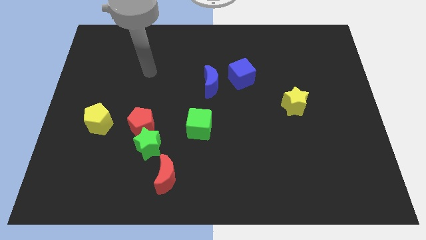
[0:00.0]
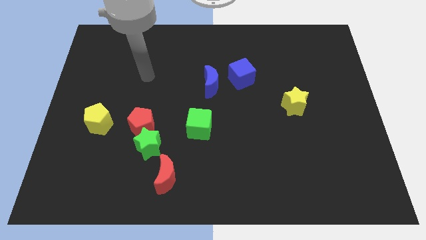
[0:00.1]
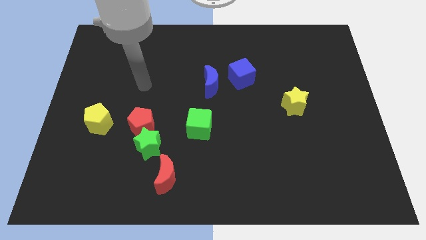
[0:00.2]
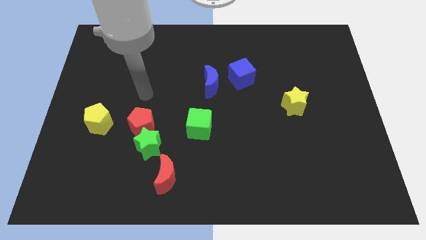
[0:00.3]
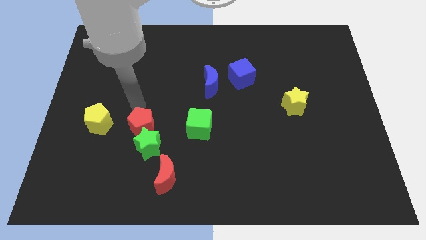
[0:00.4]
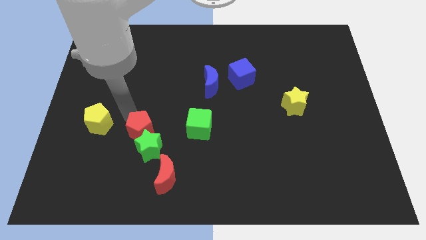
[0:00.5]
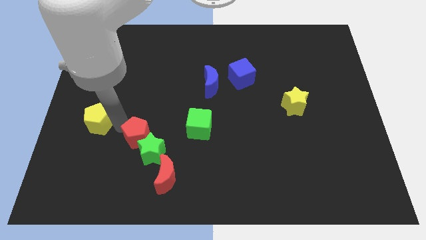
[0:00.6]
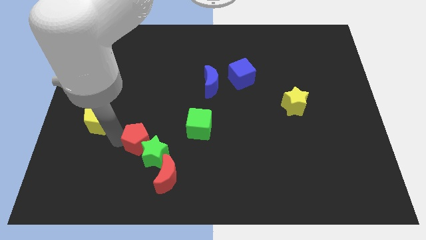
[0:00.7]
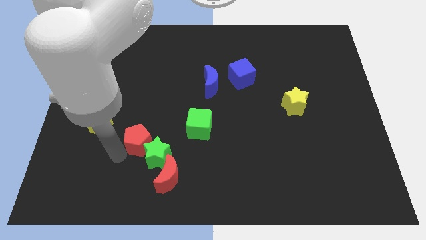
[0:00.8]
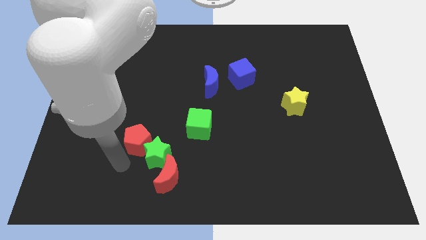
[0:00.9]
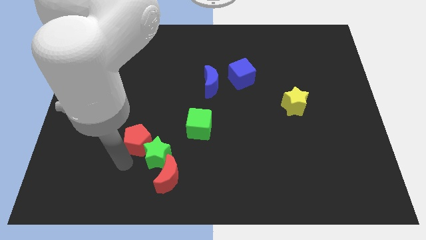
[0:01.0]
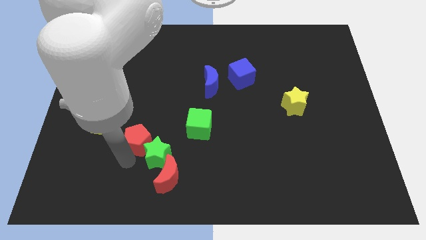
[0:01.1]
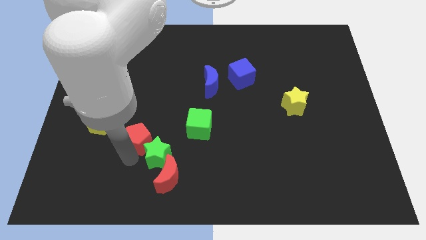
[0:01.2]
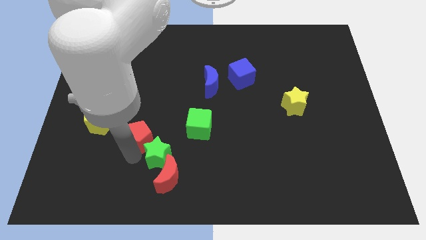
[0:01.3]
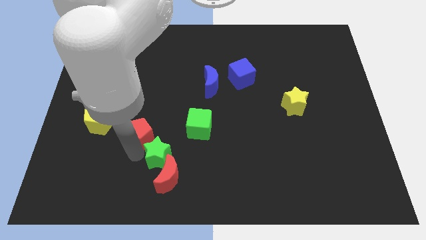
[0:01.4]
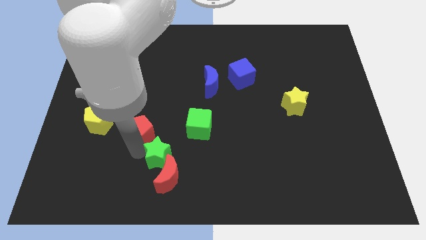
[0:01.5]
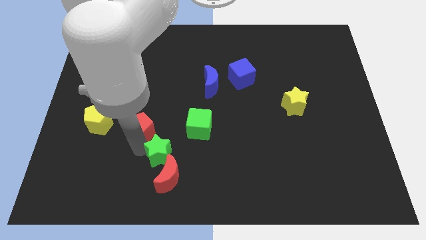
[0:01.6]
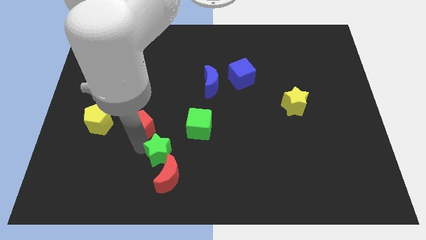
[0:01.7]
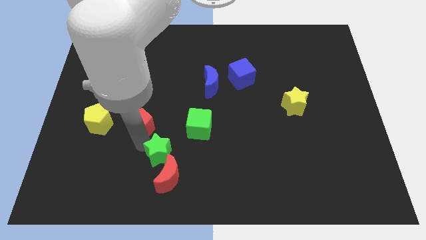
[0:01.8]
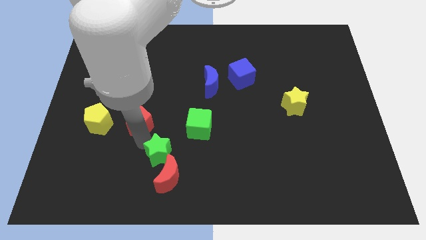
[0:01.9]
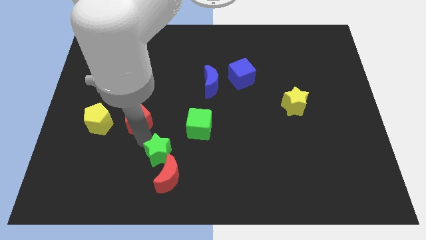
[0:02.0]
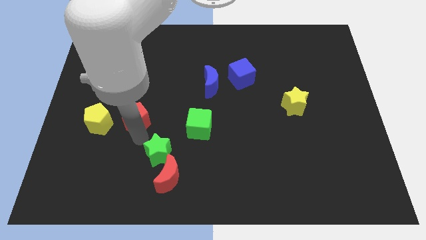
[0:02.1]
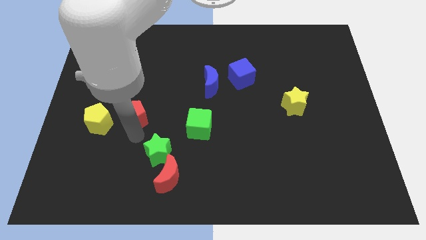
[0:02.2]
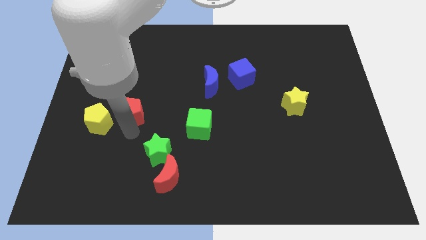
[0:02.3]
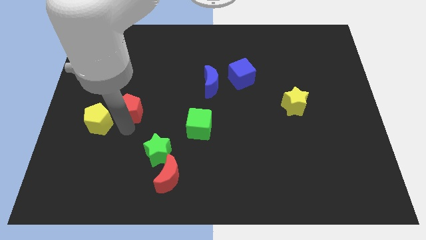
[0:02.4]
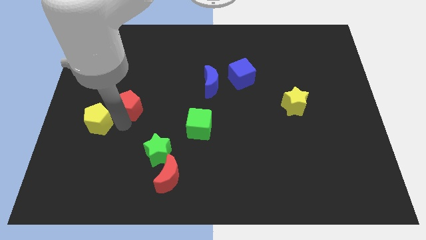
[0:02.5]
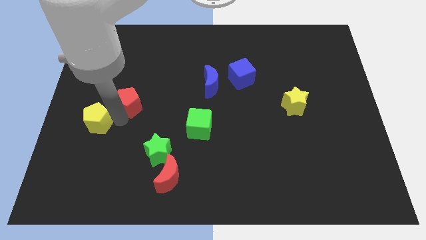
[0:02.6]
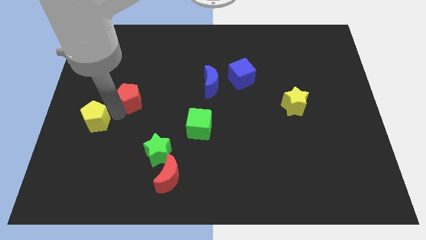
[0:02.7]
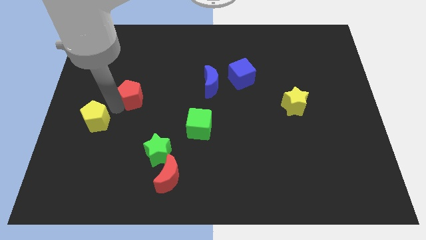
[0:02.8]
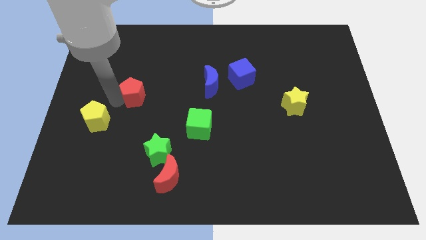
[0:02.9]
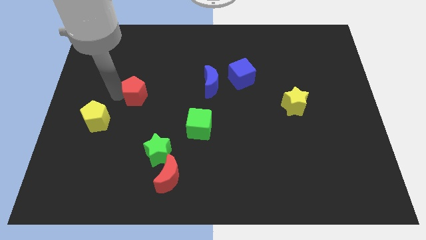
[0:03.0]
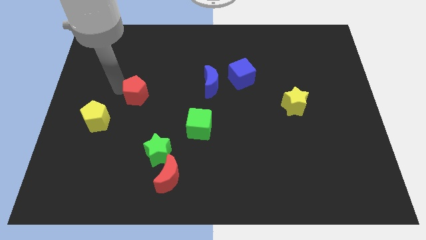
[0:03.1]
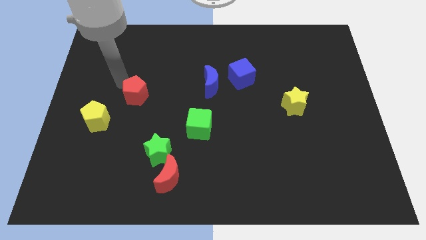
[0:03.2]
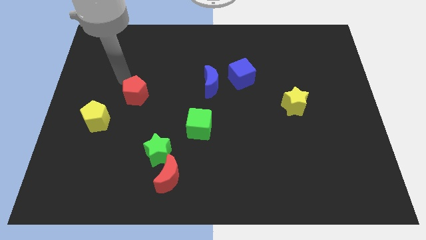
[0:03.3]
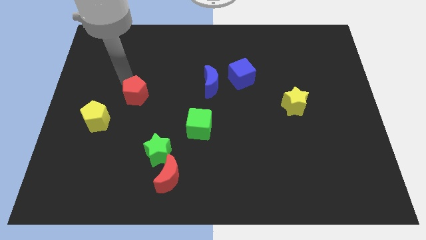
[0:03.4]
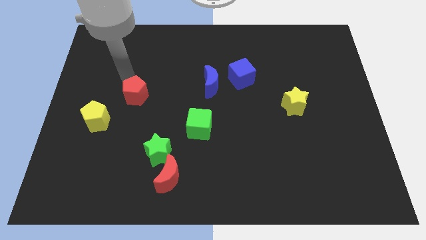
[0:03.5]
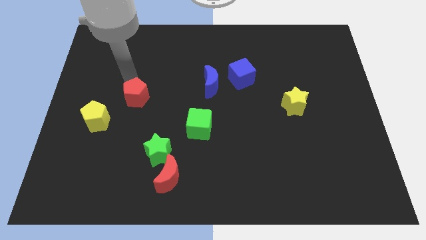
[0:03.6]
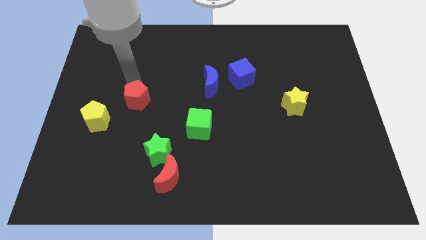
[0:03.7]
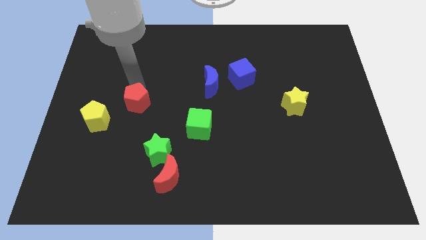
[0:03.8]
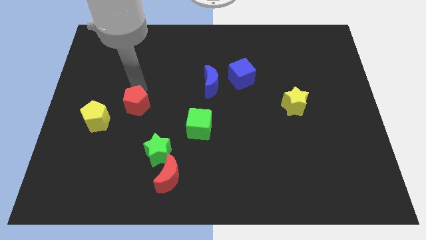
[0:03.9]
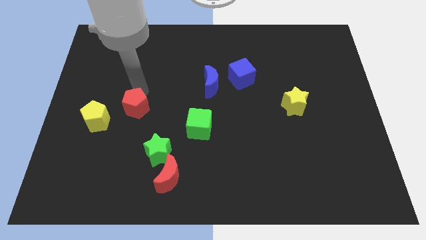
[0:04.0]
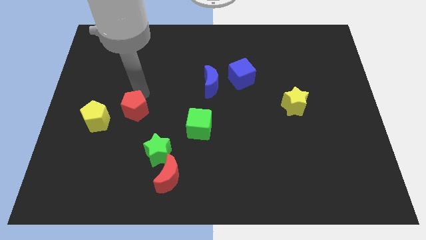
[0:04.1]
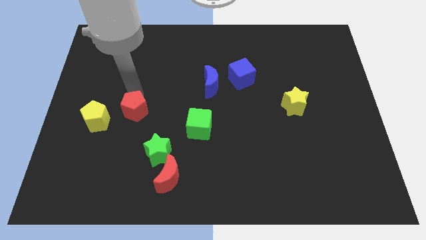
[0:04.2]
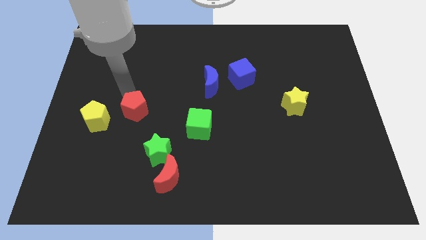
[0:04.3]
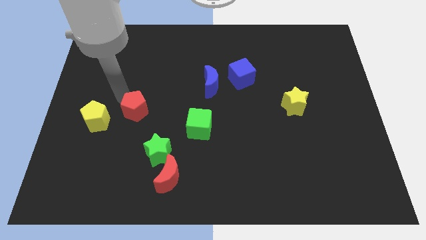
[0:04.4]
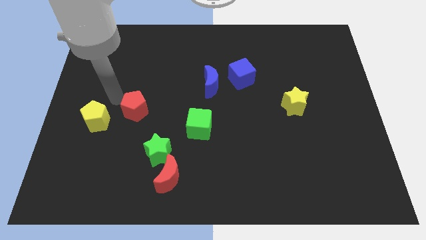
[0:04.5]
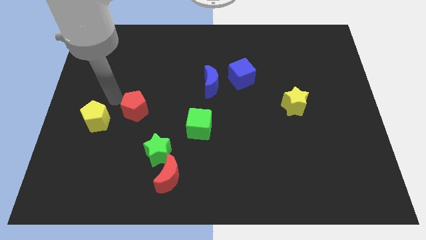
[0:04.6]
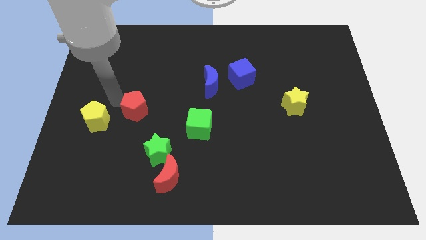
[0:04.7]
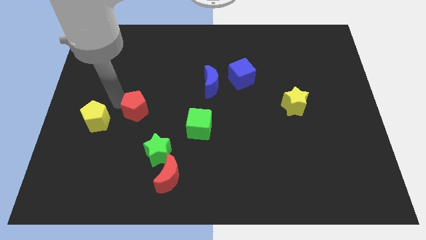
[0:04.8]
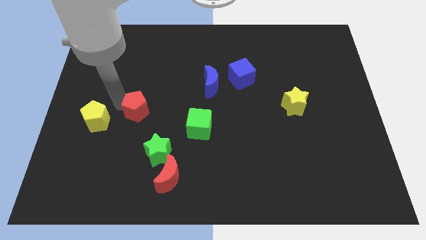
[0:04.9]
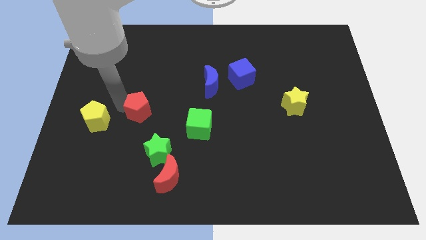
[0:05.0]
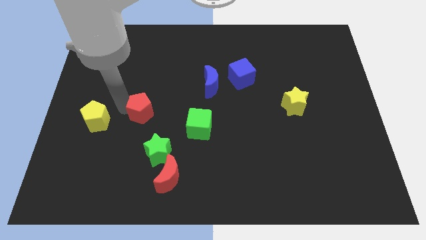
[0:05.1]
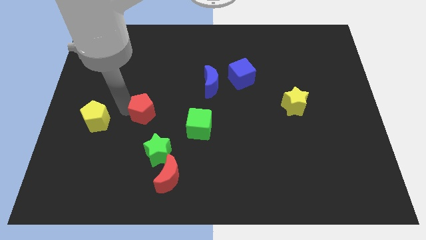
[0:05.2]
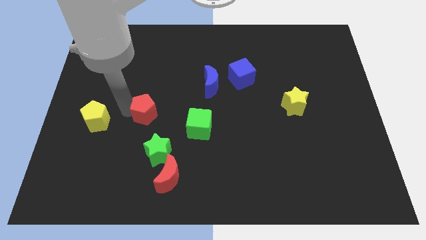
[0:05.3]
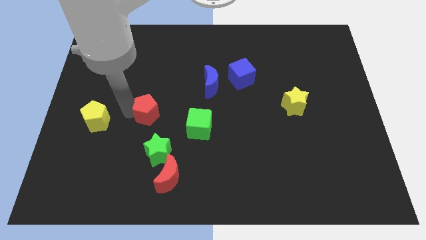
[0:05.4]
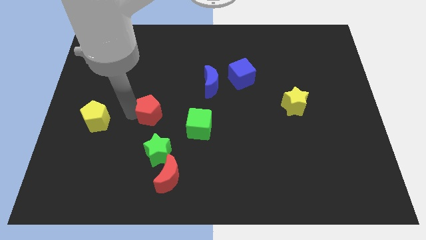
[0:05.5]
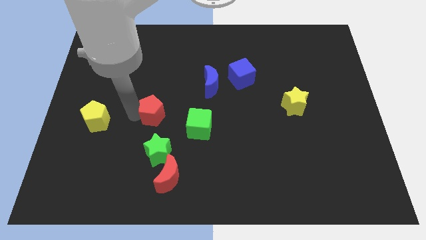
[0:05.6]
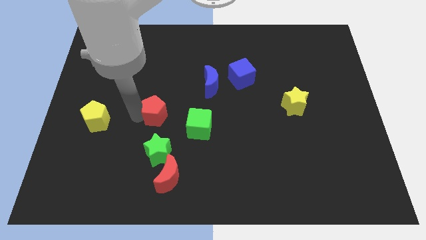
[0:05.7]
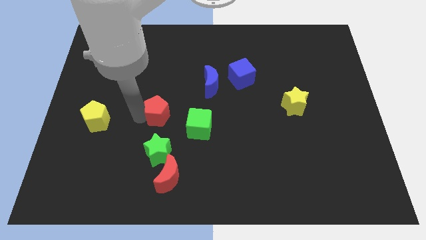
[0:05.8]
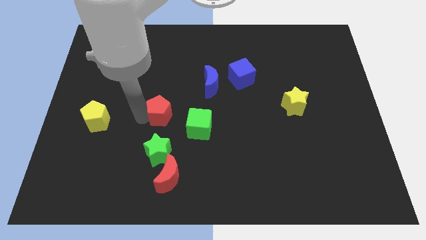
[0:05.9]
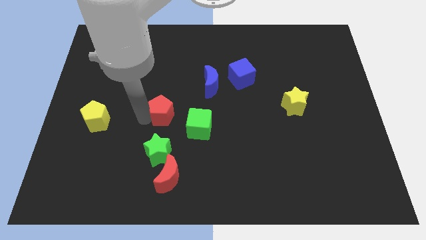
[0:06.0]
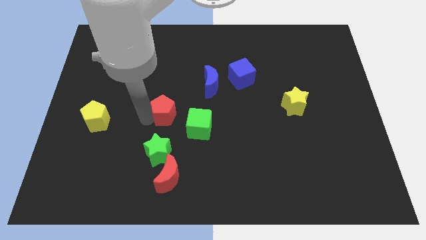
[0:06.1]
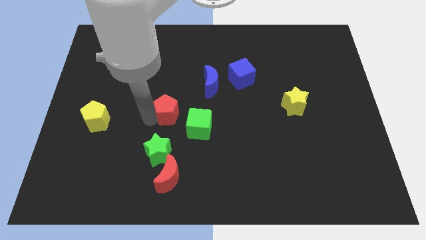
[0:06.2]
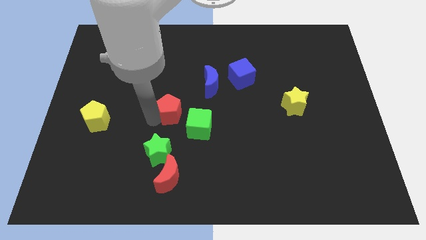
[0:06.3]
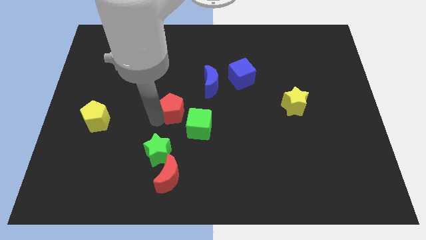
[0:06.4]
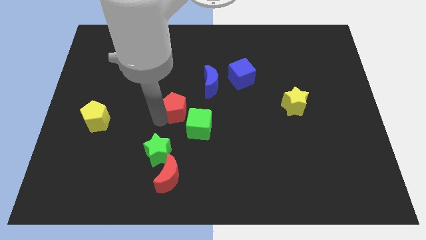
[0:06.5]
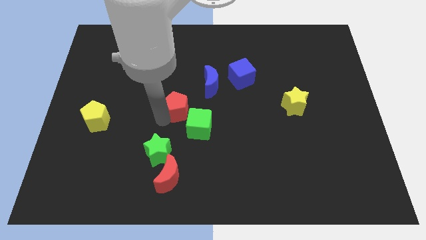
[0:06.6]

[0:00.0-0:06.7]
slide the red pentagon a little to the right

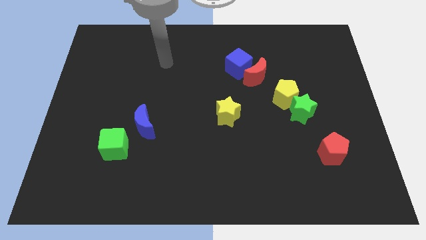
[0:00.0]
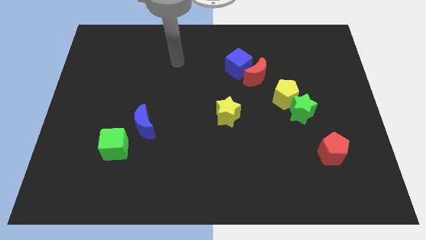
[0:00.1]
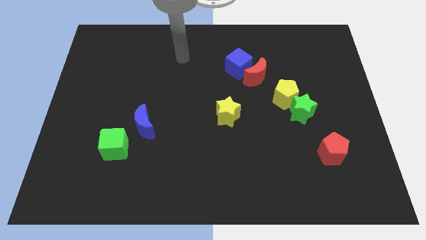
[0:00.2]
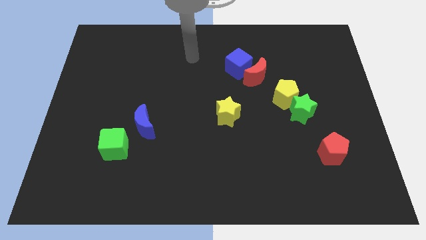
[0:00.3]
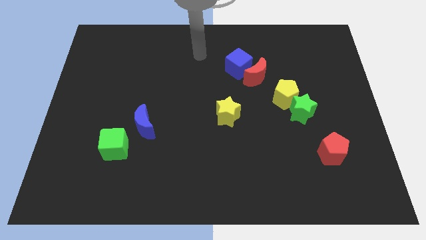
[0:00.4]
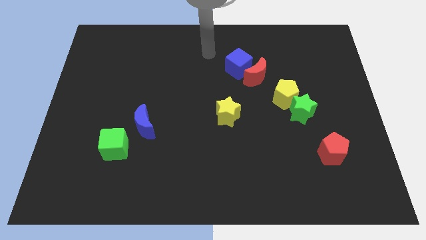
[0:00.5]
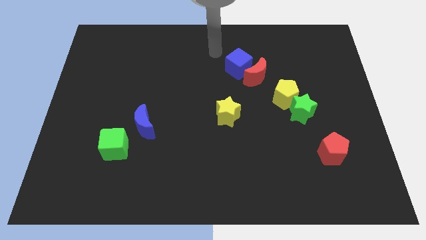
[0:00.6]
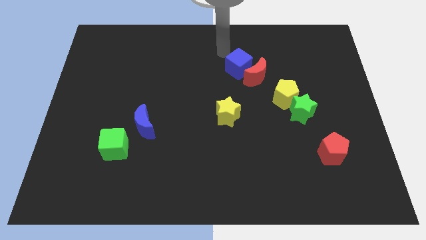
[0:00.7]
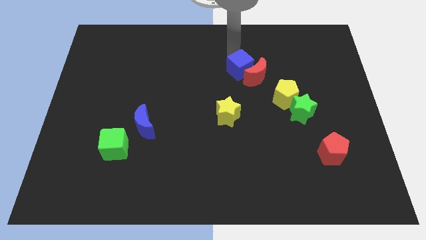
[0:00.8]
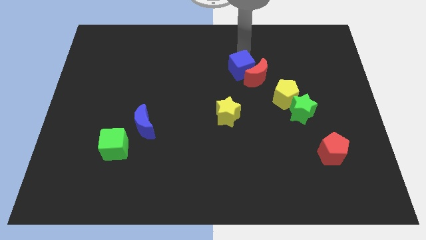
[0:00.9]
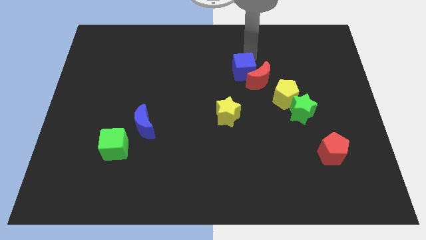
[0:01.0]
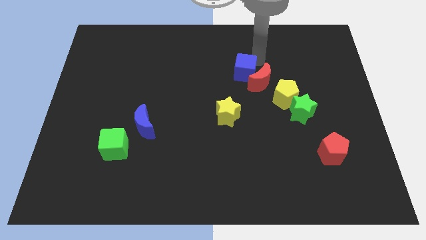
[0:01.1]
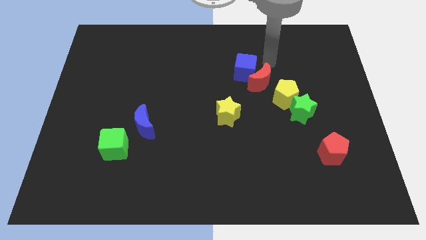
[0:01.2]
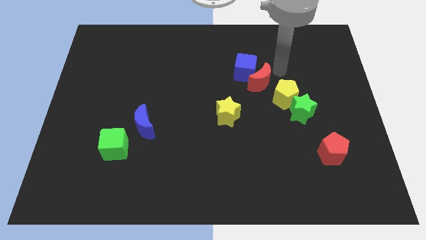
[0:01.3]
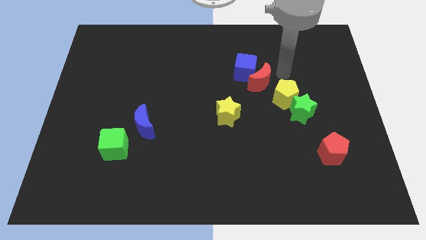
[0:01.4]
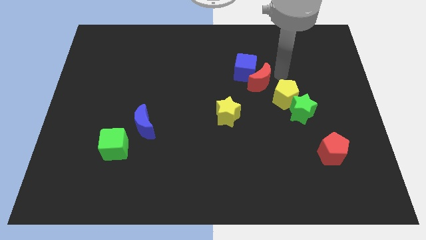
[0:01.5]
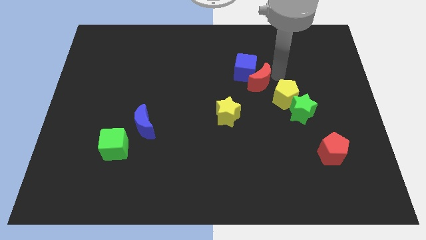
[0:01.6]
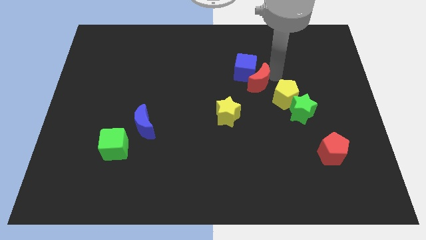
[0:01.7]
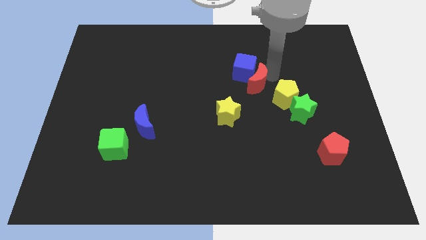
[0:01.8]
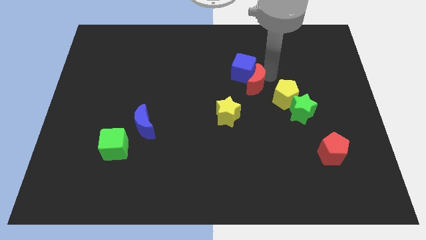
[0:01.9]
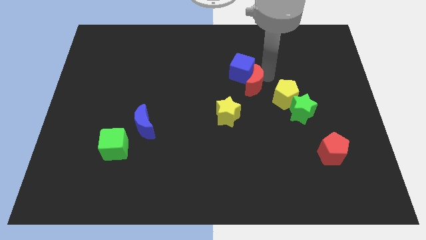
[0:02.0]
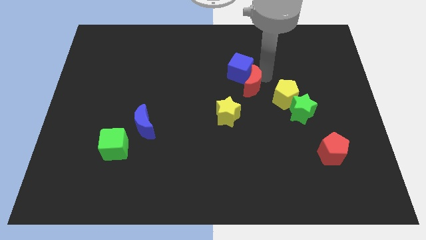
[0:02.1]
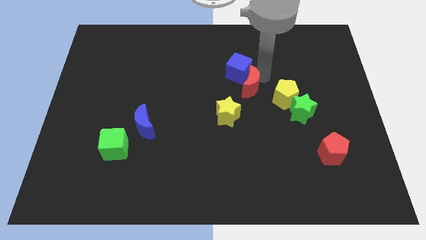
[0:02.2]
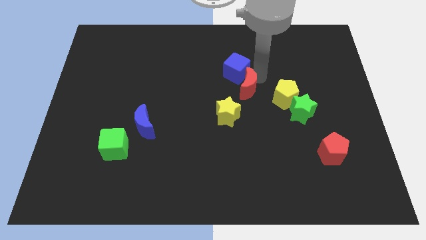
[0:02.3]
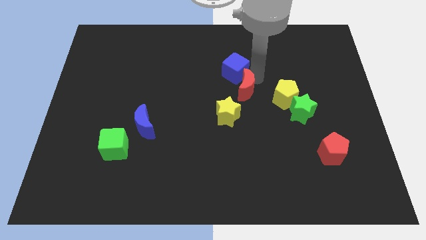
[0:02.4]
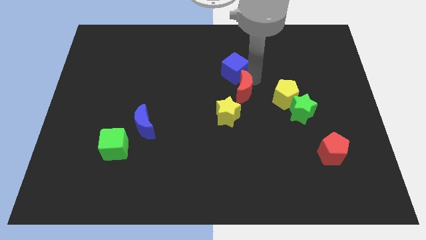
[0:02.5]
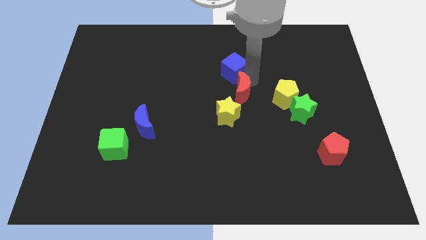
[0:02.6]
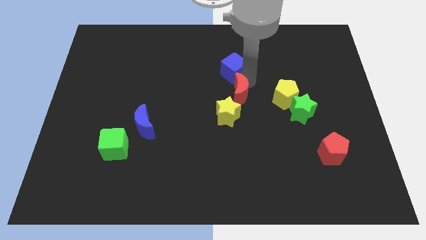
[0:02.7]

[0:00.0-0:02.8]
slide the red moon down and to the left slightly
